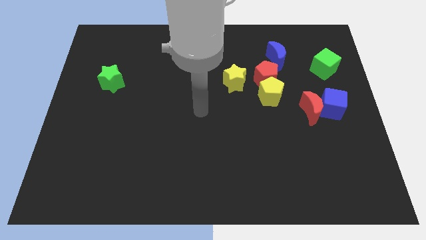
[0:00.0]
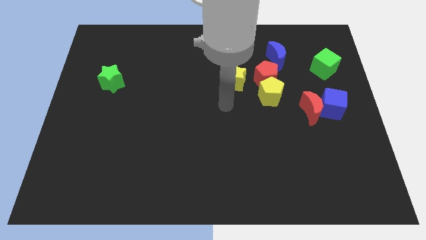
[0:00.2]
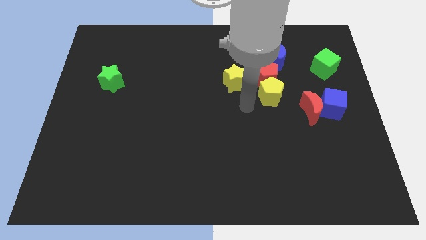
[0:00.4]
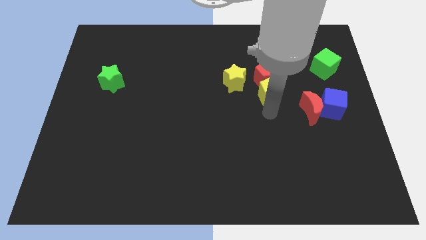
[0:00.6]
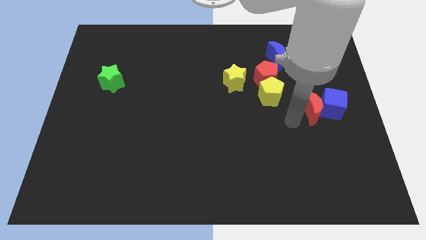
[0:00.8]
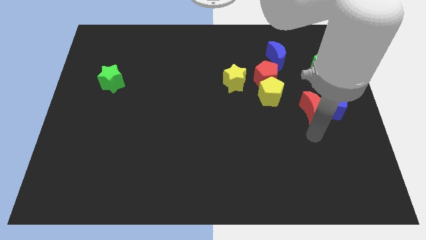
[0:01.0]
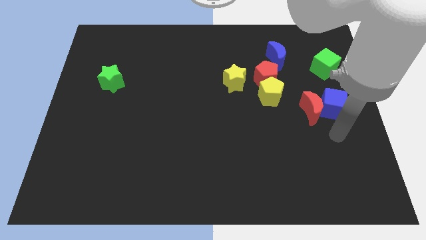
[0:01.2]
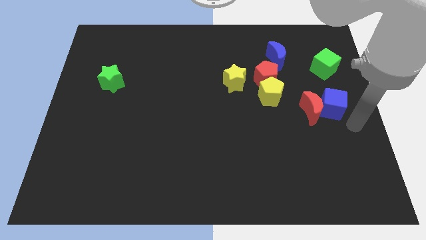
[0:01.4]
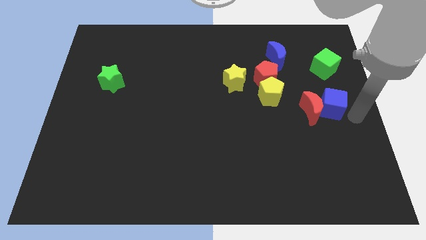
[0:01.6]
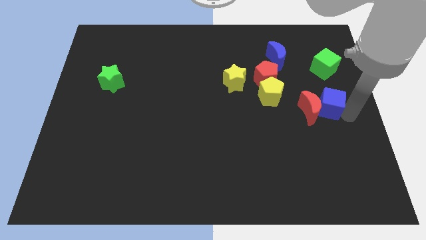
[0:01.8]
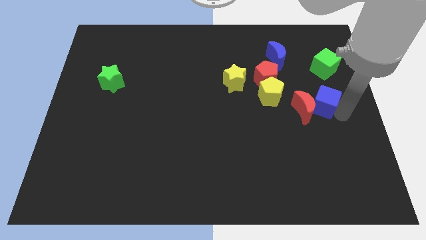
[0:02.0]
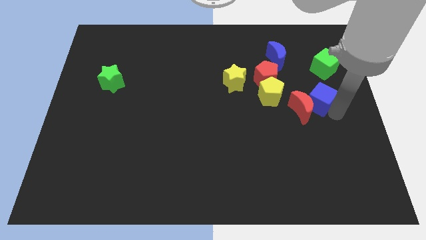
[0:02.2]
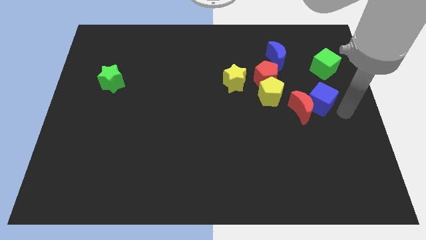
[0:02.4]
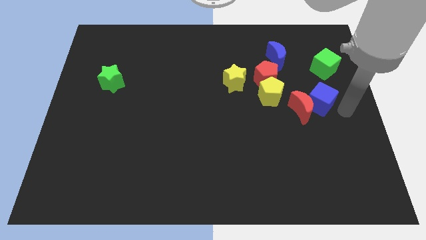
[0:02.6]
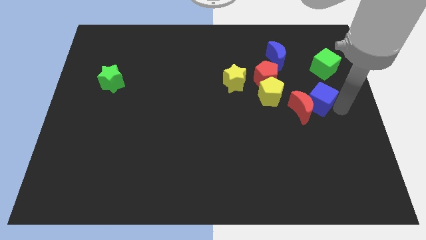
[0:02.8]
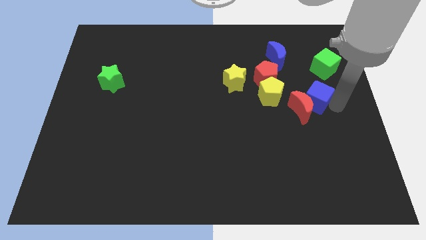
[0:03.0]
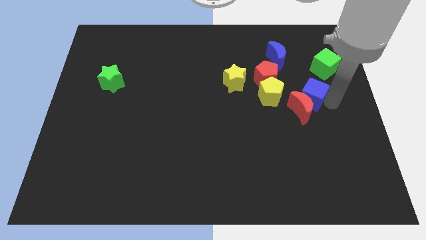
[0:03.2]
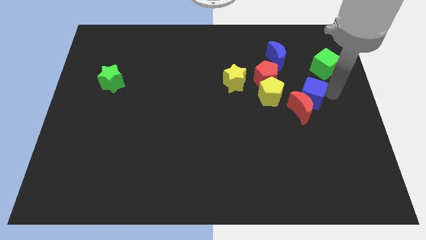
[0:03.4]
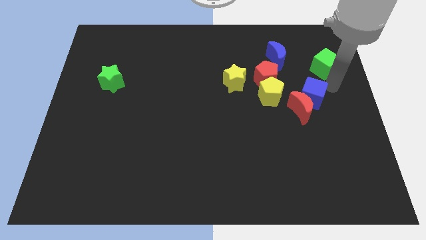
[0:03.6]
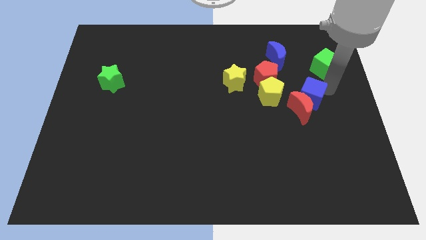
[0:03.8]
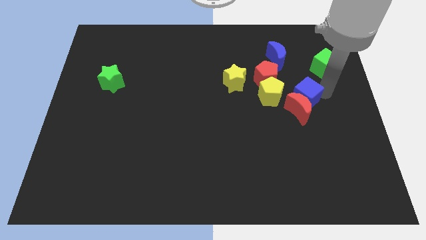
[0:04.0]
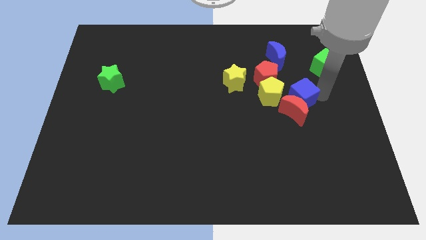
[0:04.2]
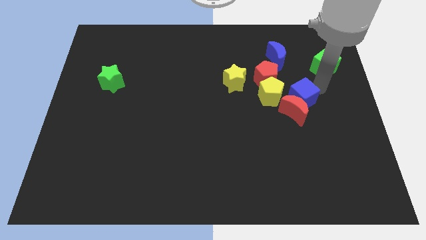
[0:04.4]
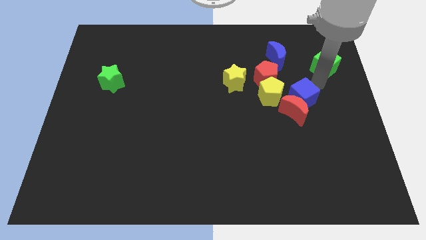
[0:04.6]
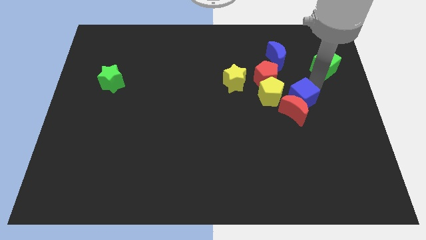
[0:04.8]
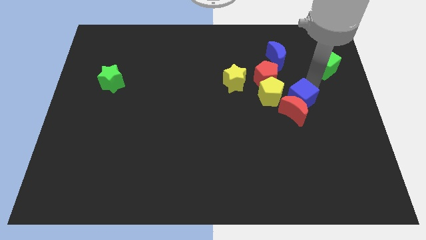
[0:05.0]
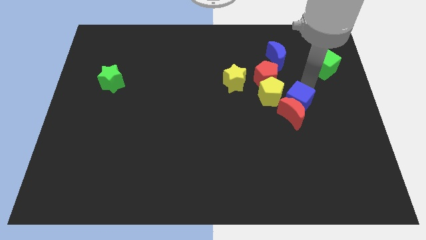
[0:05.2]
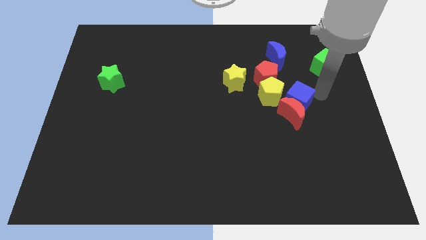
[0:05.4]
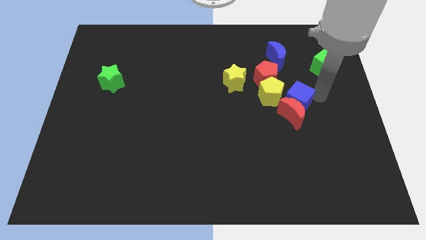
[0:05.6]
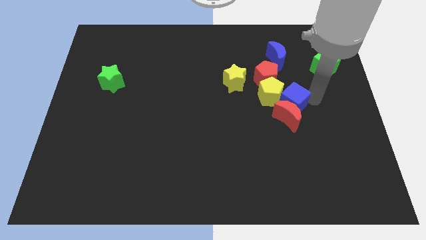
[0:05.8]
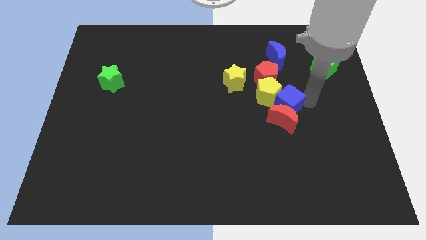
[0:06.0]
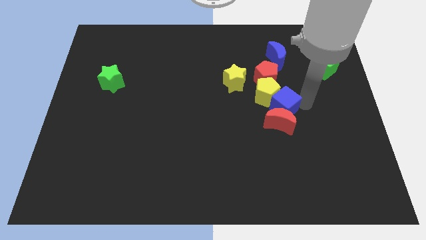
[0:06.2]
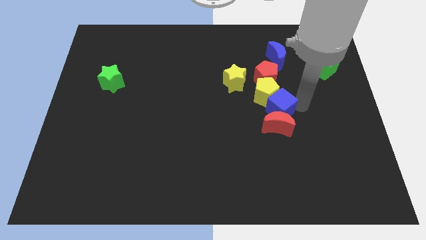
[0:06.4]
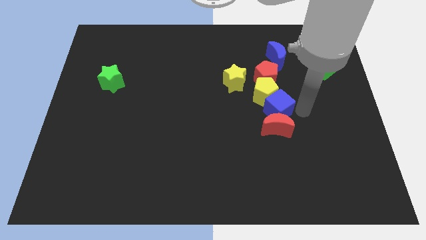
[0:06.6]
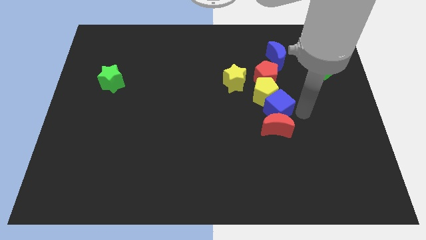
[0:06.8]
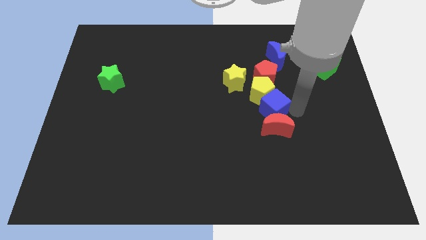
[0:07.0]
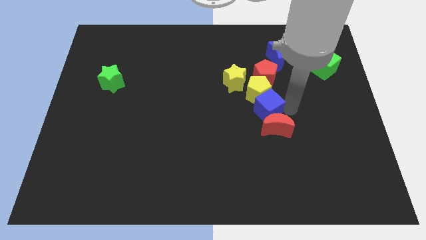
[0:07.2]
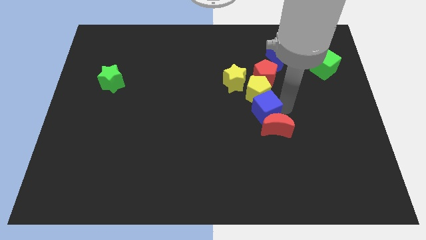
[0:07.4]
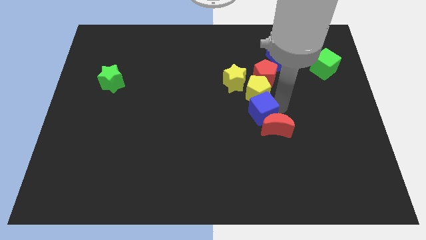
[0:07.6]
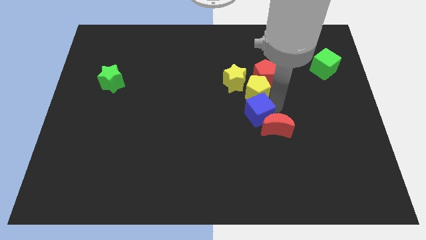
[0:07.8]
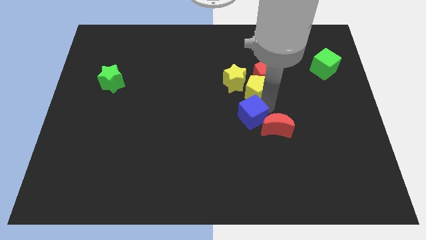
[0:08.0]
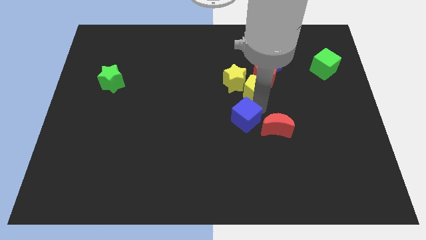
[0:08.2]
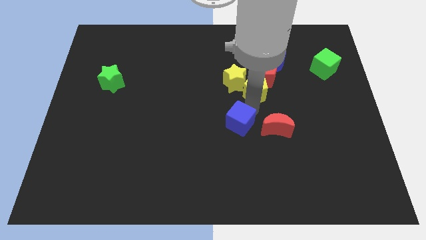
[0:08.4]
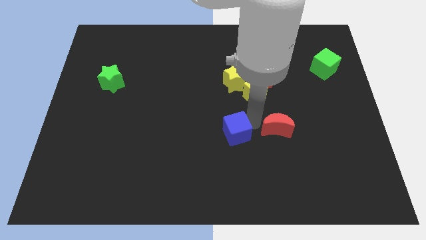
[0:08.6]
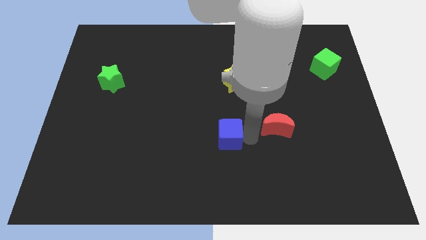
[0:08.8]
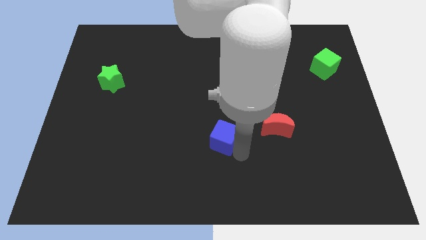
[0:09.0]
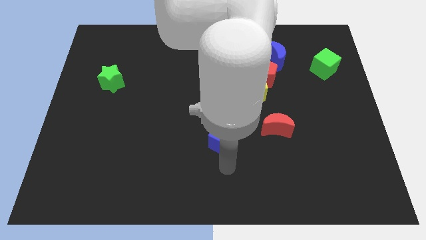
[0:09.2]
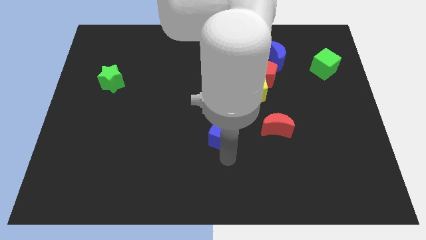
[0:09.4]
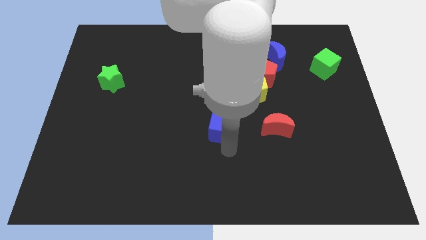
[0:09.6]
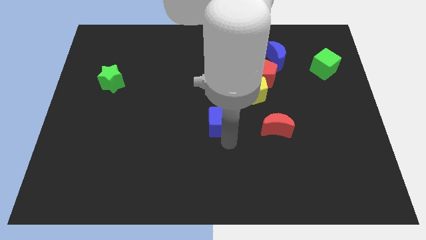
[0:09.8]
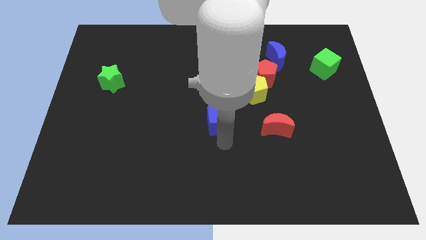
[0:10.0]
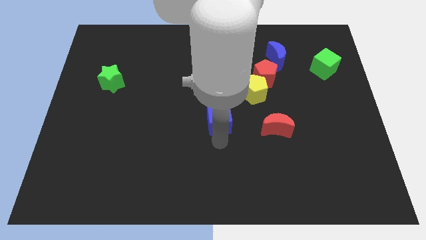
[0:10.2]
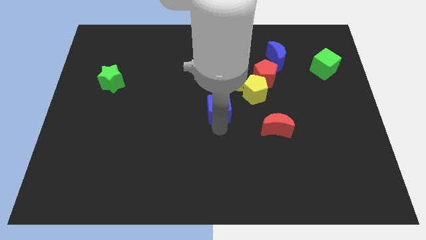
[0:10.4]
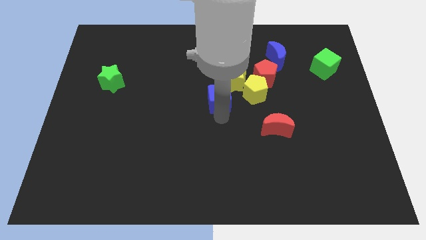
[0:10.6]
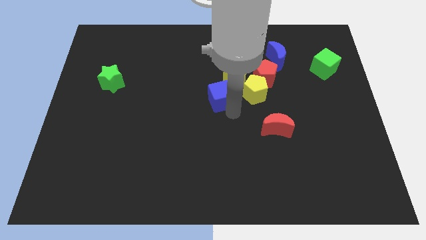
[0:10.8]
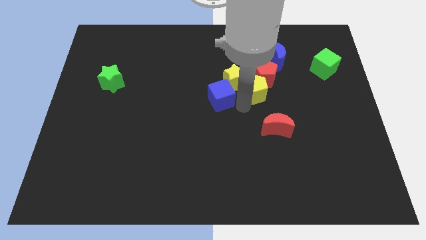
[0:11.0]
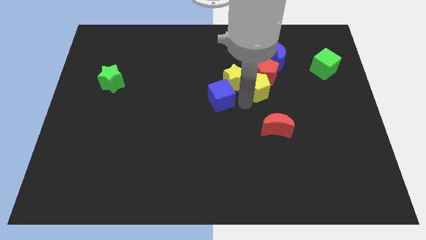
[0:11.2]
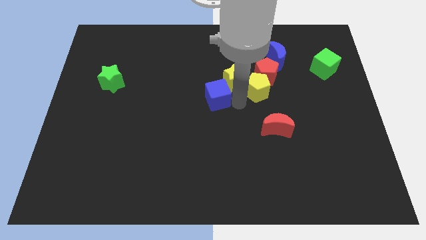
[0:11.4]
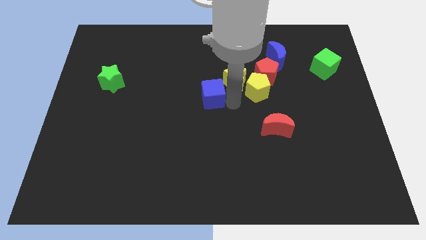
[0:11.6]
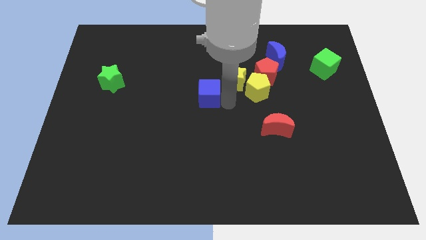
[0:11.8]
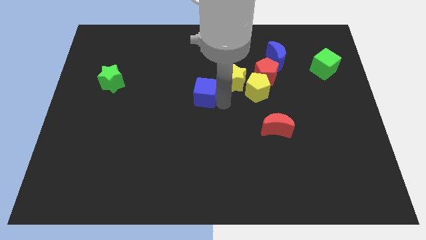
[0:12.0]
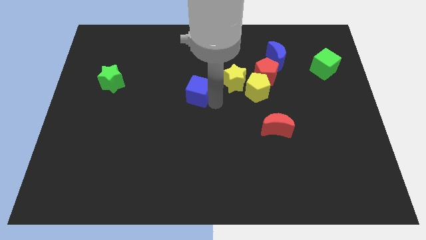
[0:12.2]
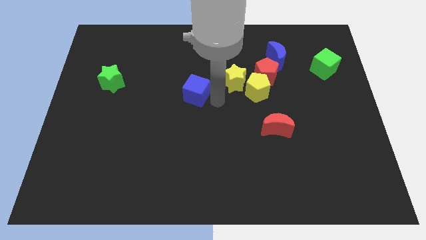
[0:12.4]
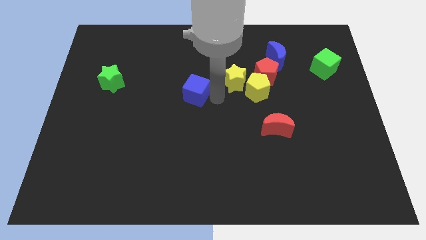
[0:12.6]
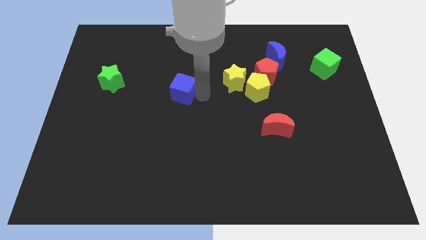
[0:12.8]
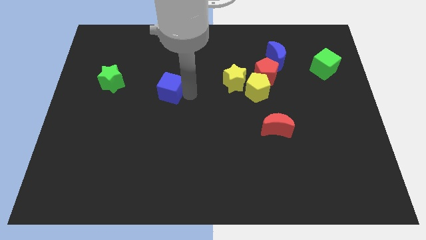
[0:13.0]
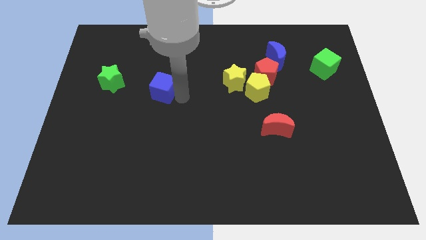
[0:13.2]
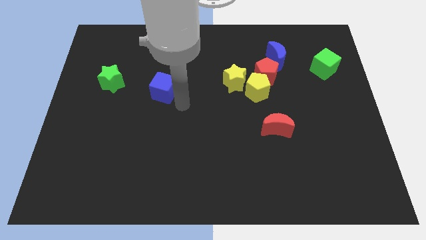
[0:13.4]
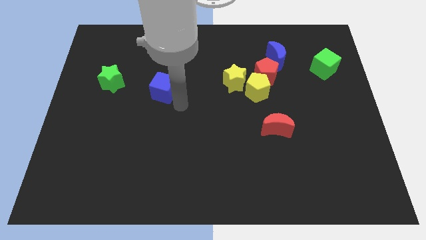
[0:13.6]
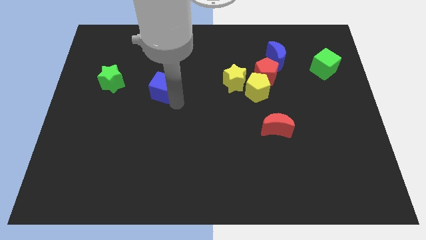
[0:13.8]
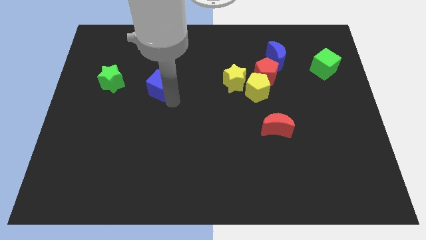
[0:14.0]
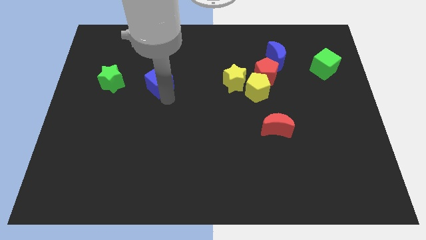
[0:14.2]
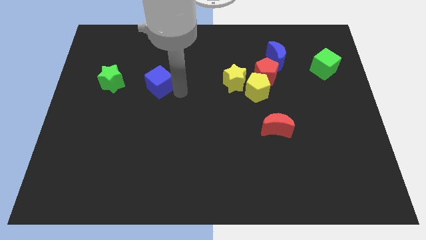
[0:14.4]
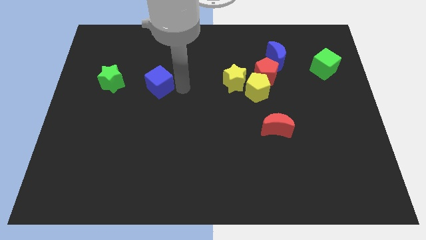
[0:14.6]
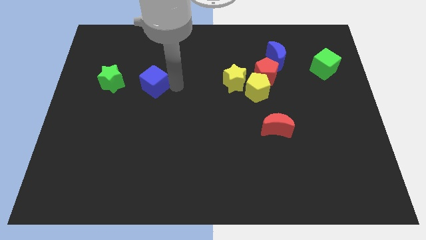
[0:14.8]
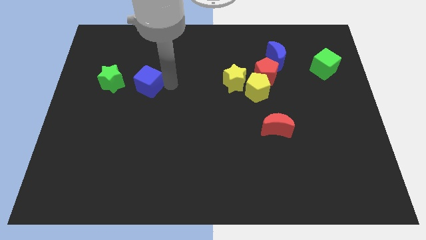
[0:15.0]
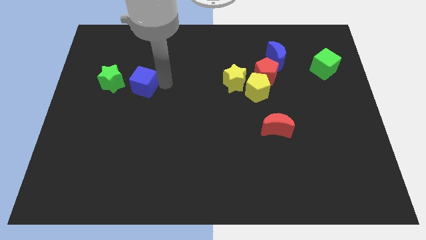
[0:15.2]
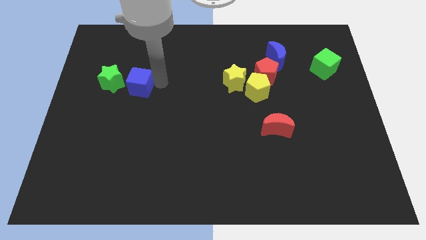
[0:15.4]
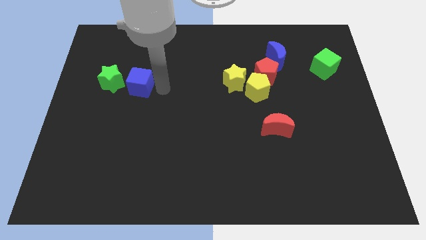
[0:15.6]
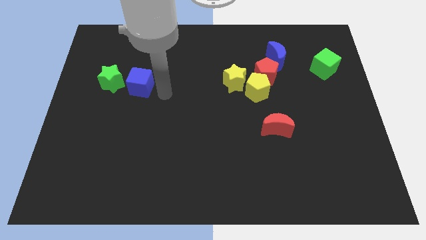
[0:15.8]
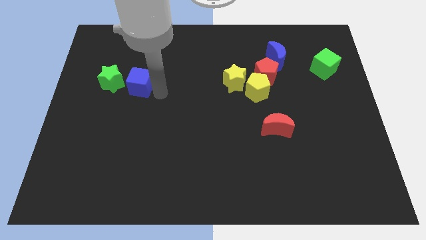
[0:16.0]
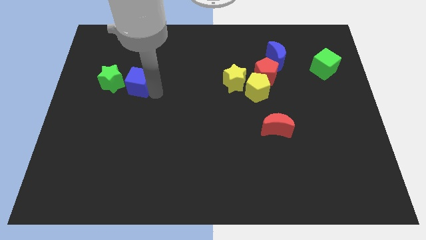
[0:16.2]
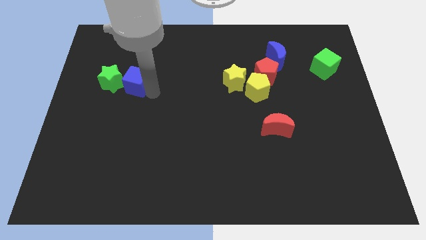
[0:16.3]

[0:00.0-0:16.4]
slide the blue cube towards the green star
